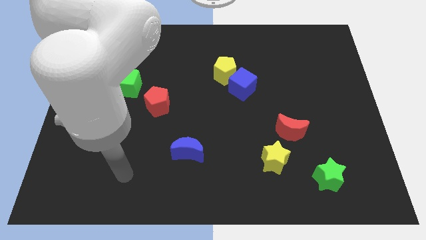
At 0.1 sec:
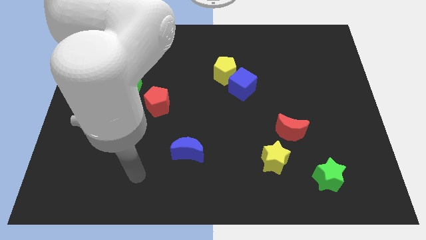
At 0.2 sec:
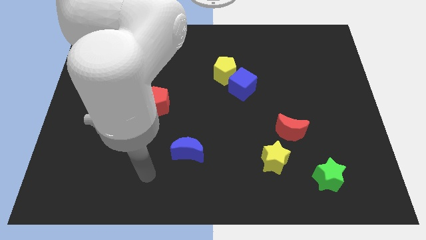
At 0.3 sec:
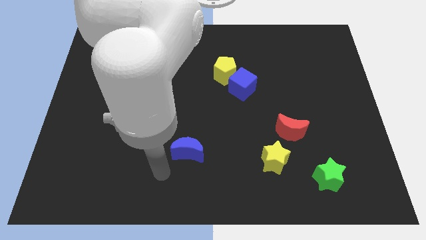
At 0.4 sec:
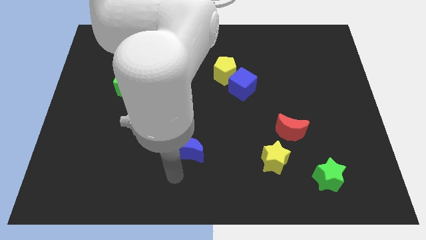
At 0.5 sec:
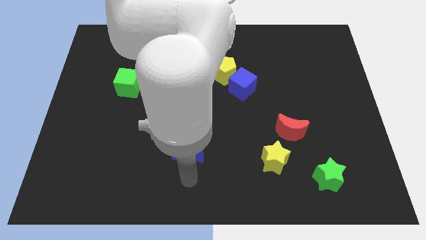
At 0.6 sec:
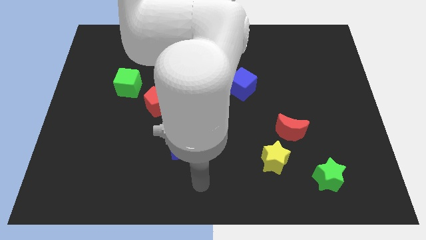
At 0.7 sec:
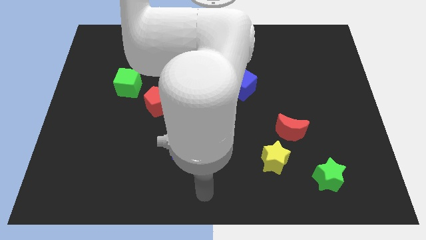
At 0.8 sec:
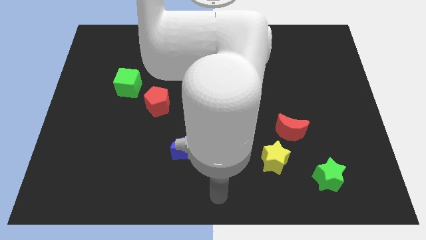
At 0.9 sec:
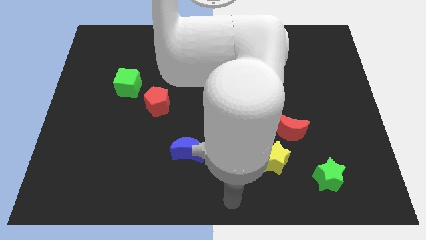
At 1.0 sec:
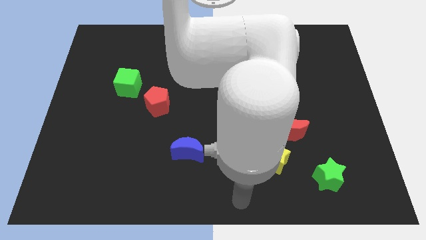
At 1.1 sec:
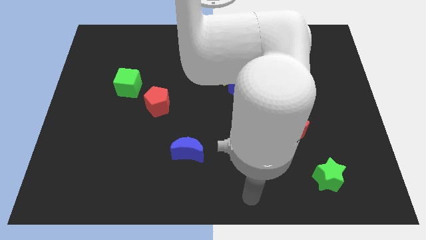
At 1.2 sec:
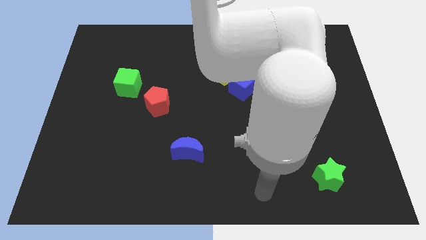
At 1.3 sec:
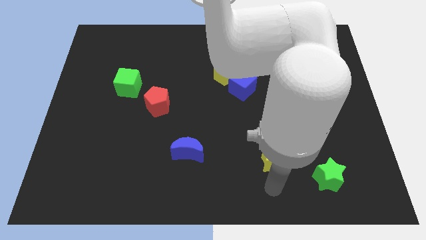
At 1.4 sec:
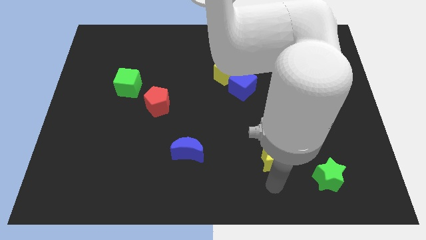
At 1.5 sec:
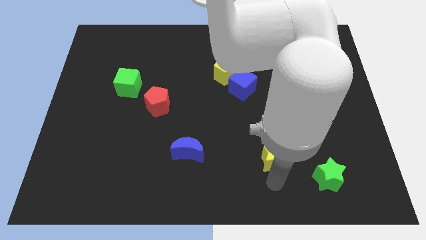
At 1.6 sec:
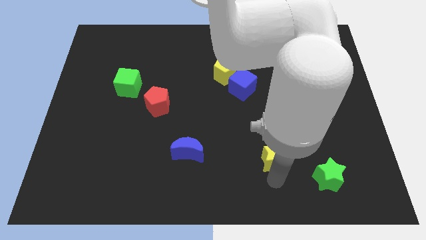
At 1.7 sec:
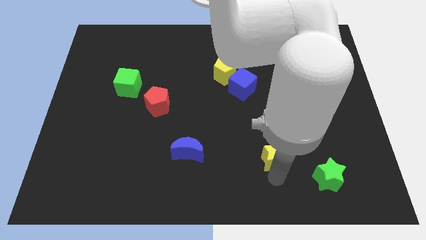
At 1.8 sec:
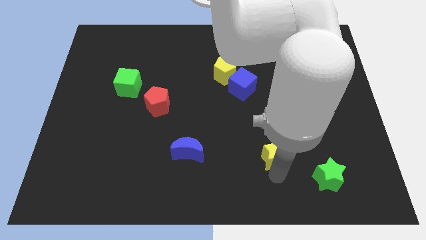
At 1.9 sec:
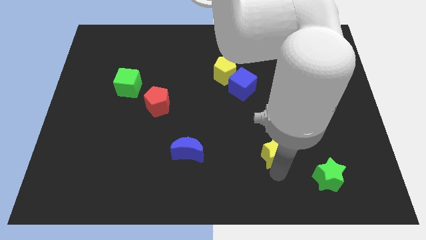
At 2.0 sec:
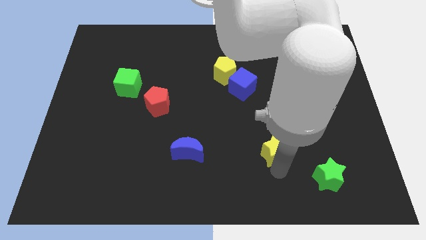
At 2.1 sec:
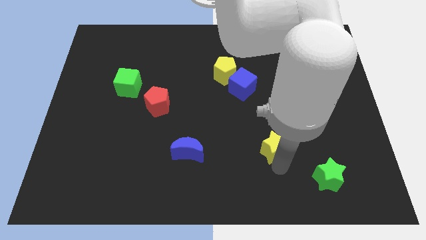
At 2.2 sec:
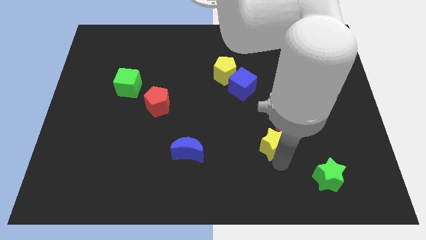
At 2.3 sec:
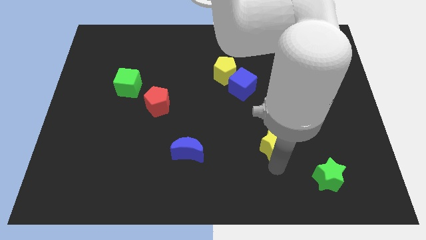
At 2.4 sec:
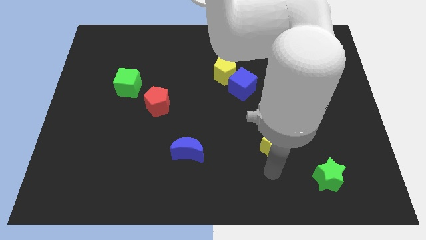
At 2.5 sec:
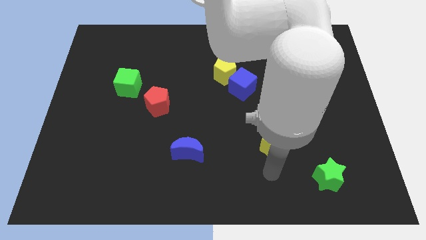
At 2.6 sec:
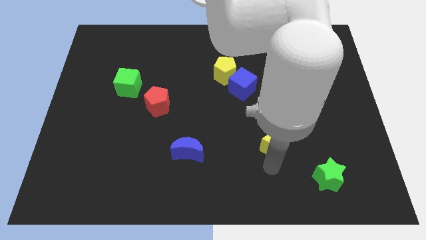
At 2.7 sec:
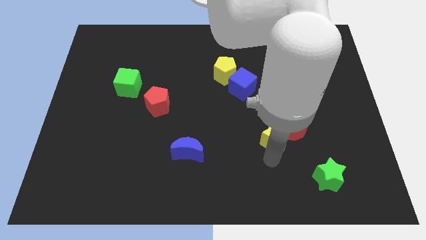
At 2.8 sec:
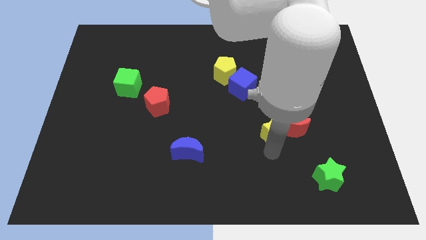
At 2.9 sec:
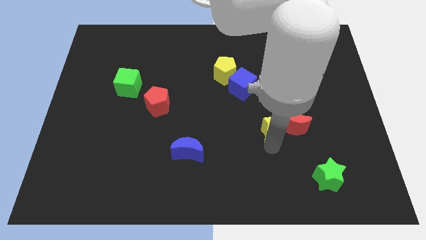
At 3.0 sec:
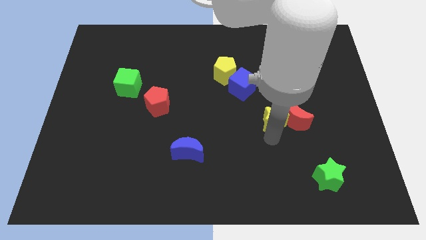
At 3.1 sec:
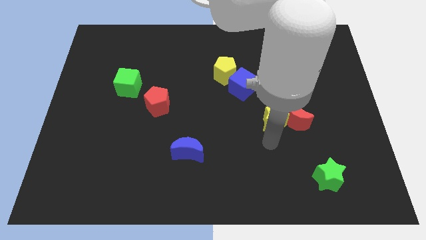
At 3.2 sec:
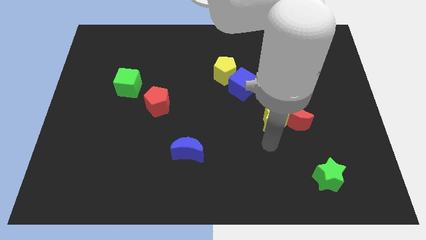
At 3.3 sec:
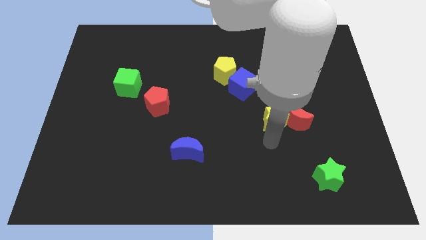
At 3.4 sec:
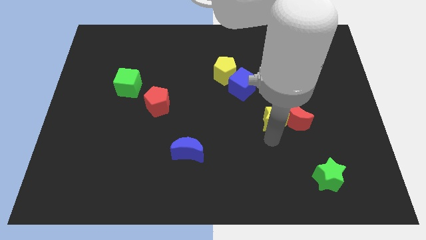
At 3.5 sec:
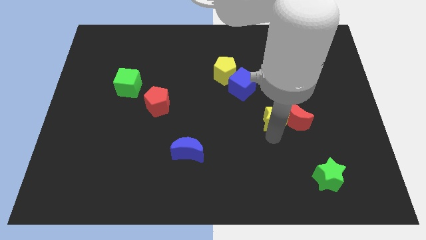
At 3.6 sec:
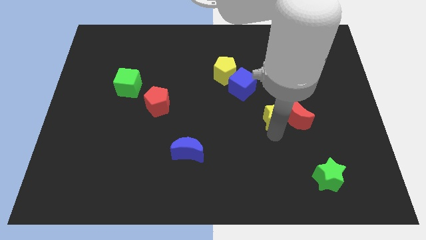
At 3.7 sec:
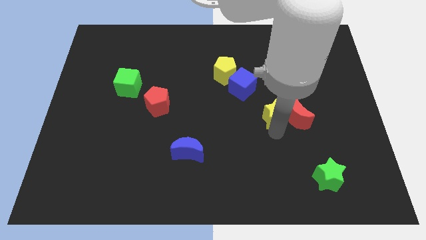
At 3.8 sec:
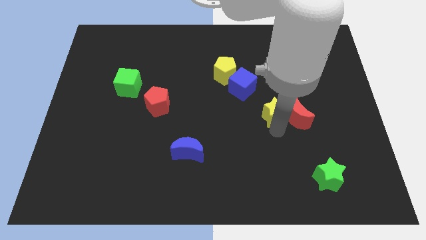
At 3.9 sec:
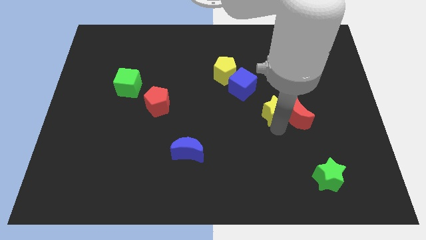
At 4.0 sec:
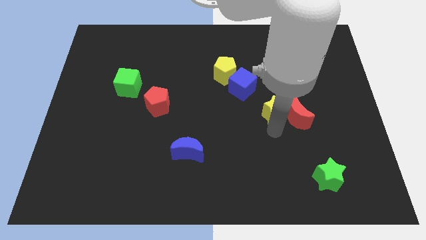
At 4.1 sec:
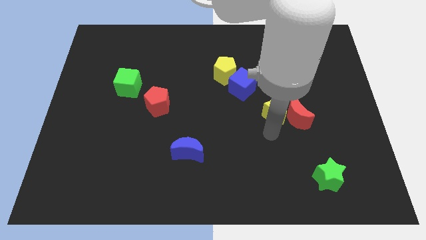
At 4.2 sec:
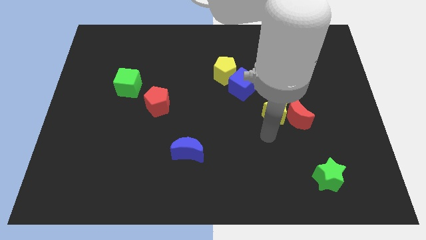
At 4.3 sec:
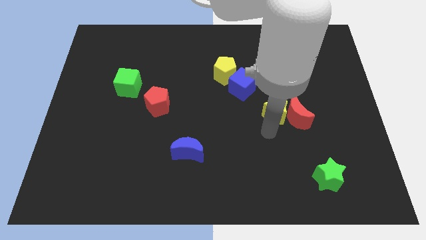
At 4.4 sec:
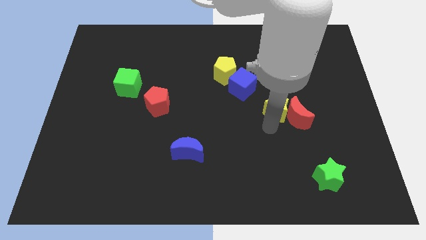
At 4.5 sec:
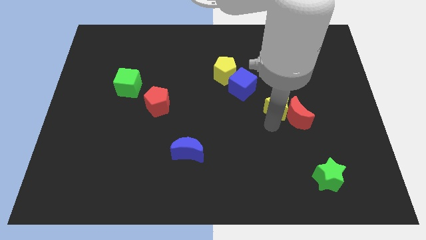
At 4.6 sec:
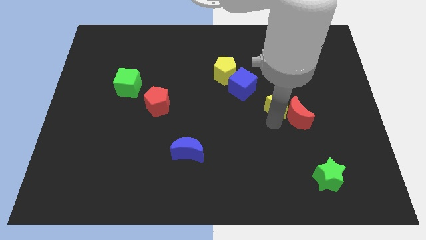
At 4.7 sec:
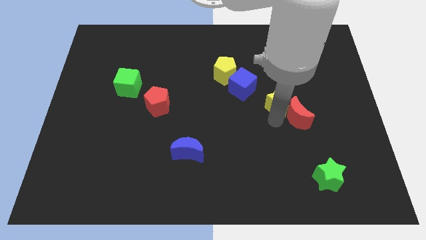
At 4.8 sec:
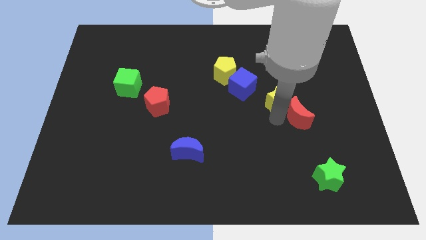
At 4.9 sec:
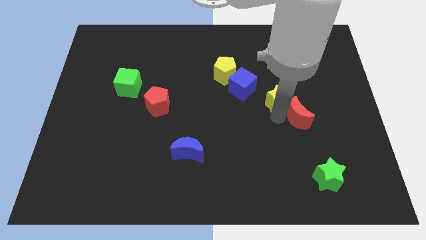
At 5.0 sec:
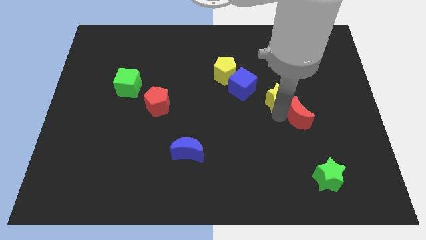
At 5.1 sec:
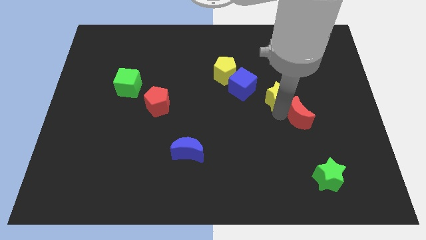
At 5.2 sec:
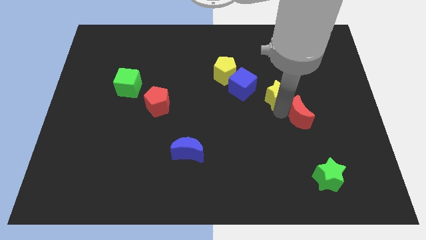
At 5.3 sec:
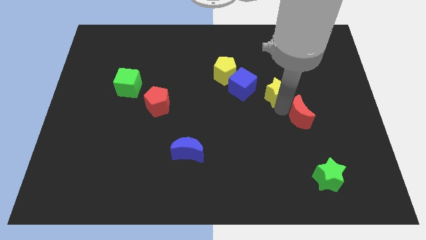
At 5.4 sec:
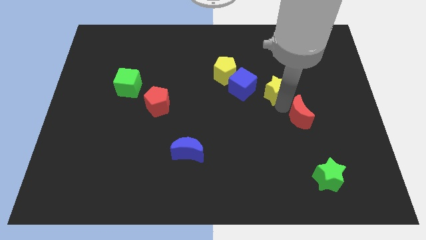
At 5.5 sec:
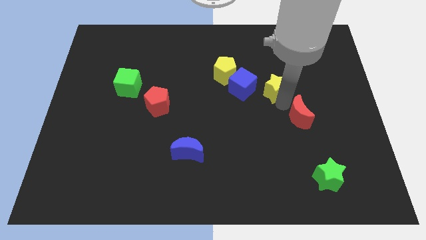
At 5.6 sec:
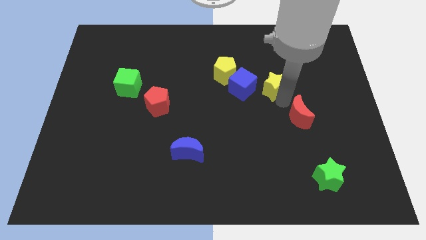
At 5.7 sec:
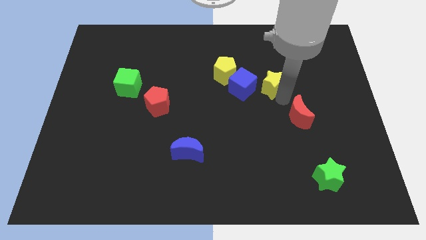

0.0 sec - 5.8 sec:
push the yellow star just right of the yellow pentagon

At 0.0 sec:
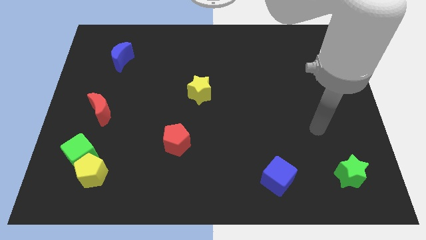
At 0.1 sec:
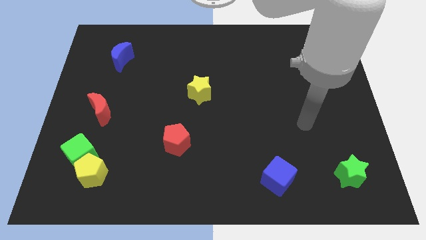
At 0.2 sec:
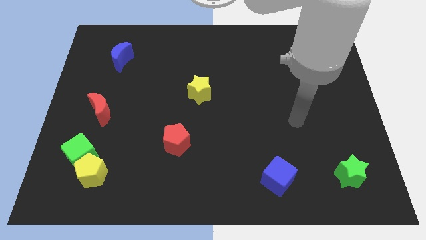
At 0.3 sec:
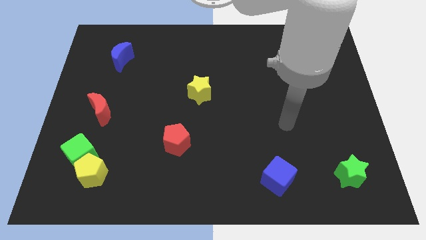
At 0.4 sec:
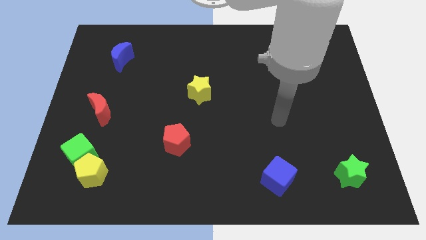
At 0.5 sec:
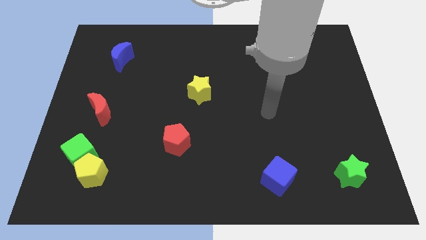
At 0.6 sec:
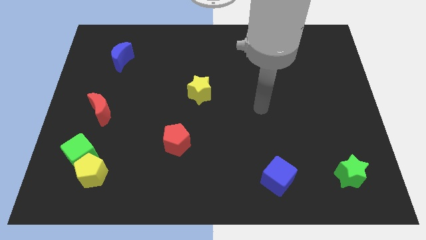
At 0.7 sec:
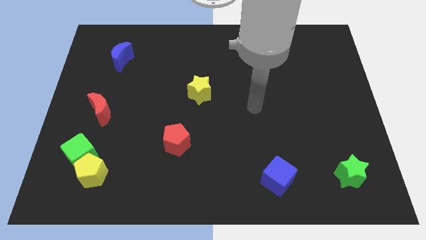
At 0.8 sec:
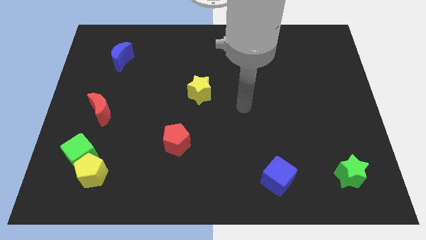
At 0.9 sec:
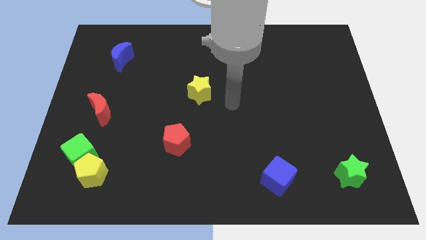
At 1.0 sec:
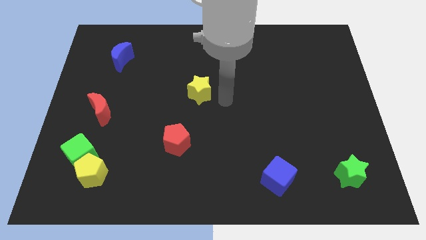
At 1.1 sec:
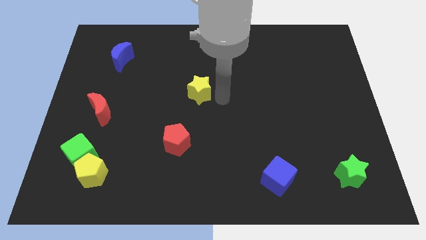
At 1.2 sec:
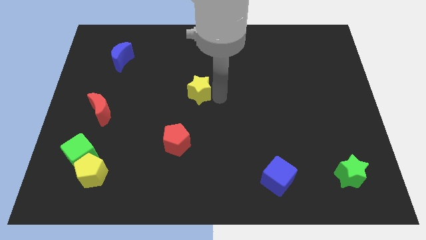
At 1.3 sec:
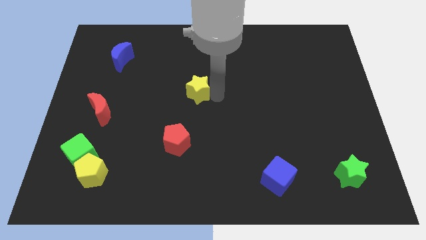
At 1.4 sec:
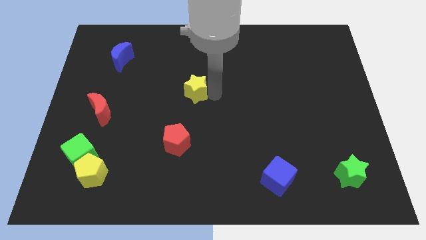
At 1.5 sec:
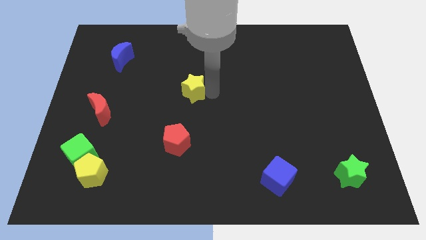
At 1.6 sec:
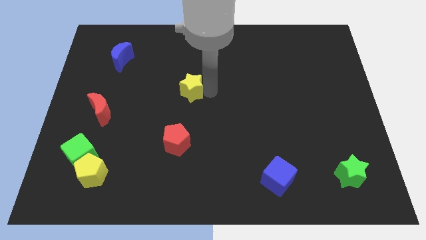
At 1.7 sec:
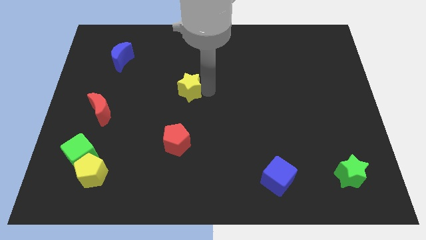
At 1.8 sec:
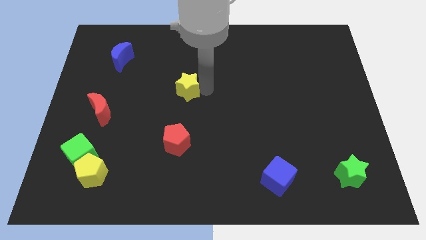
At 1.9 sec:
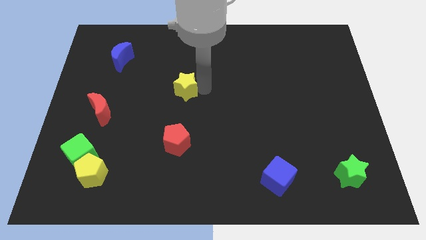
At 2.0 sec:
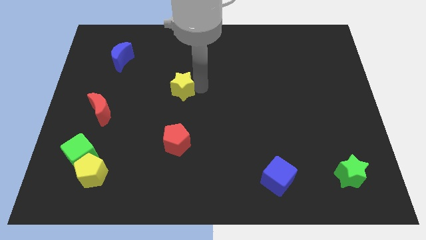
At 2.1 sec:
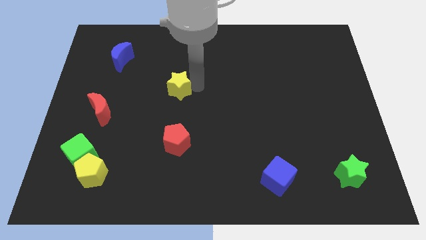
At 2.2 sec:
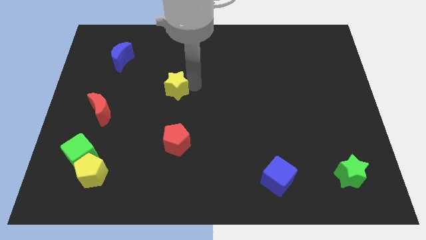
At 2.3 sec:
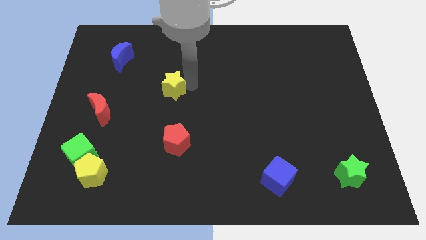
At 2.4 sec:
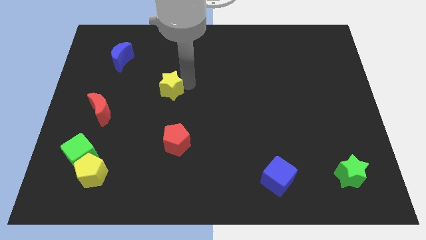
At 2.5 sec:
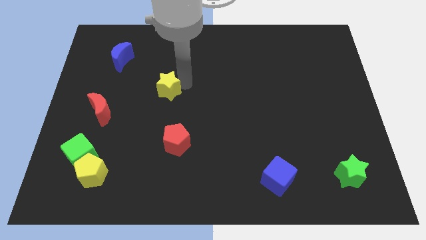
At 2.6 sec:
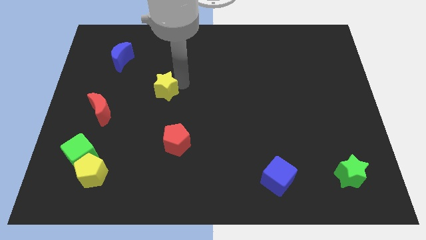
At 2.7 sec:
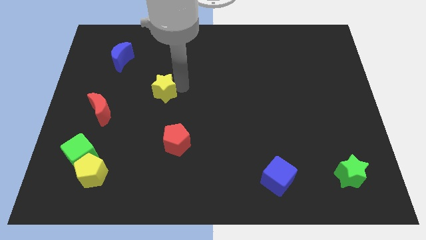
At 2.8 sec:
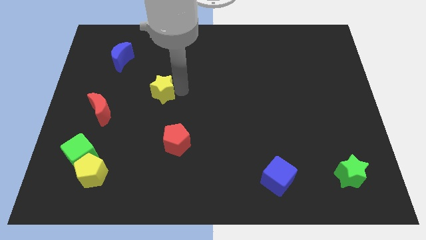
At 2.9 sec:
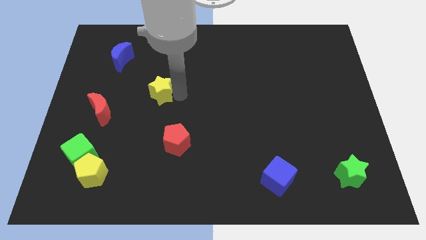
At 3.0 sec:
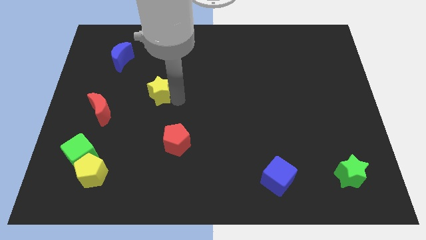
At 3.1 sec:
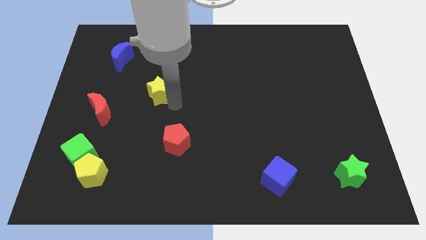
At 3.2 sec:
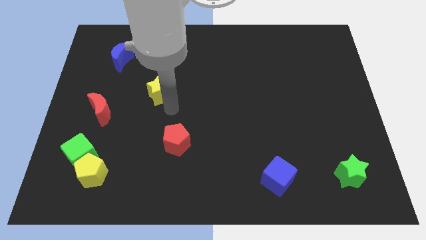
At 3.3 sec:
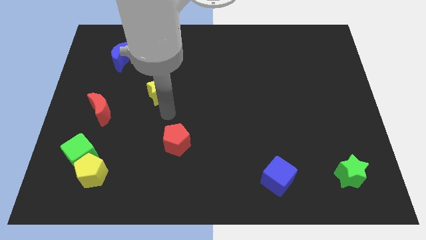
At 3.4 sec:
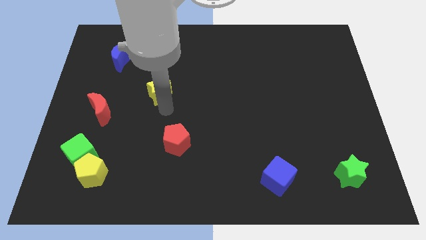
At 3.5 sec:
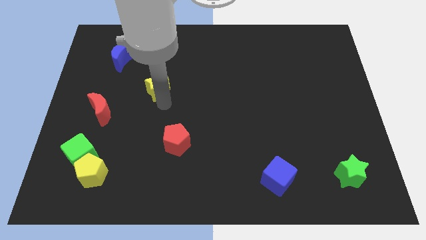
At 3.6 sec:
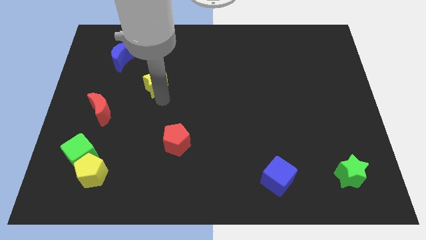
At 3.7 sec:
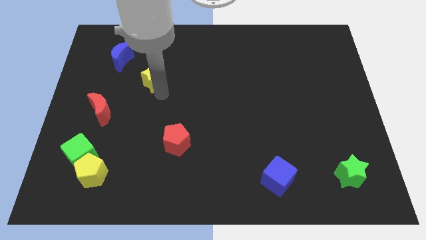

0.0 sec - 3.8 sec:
put the yellow star diagonally down and to the right of the blue moon
